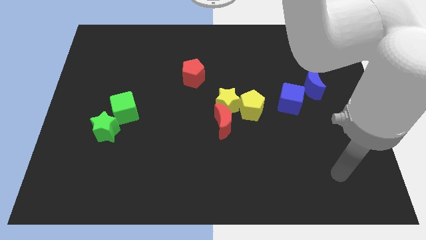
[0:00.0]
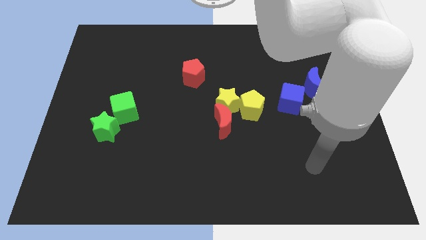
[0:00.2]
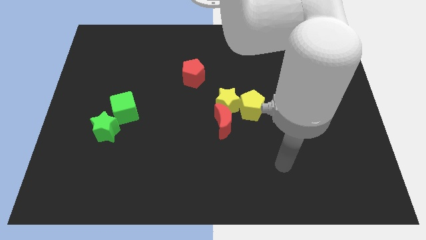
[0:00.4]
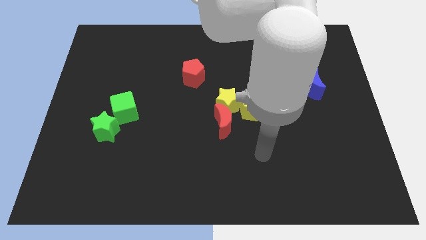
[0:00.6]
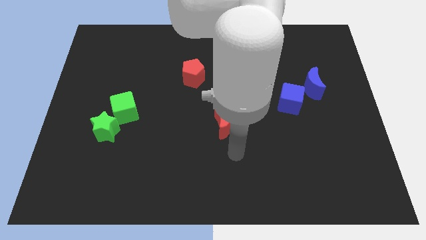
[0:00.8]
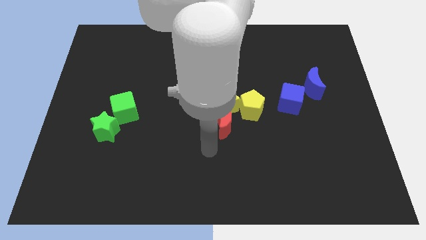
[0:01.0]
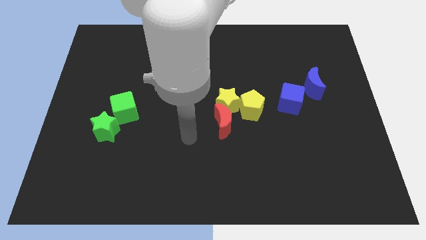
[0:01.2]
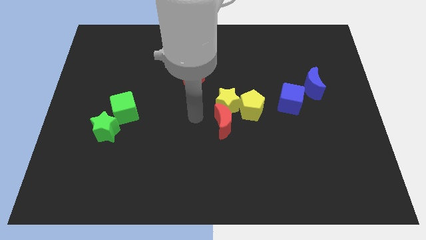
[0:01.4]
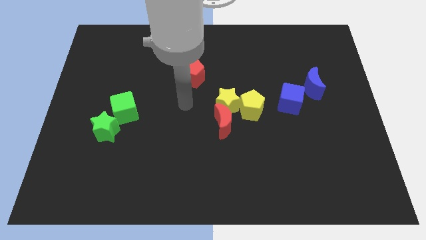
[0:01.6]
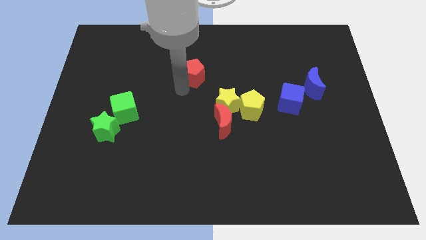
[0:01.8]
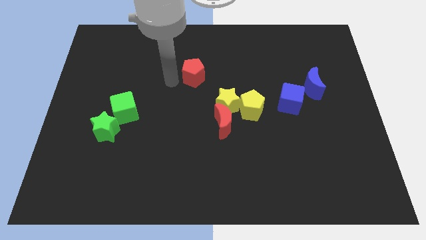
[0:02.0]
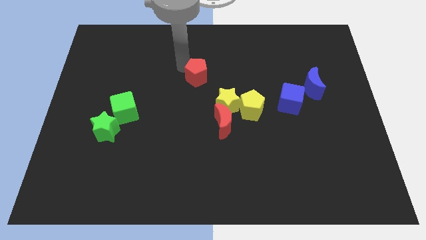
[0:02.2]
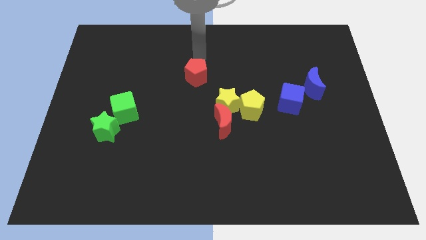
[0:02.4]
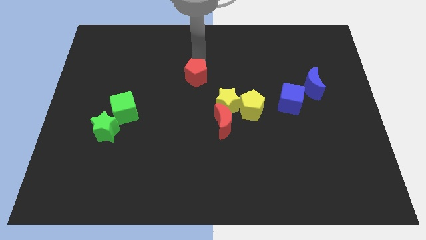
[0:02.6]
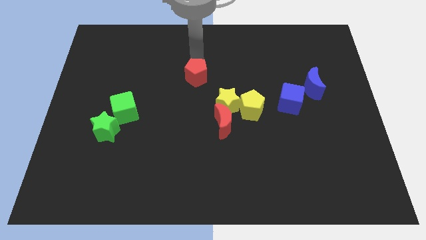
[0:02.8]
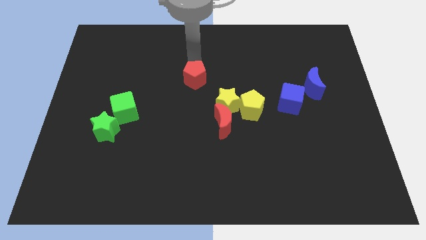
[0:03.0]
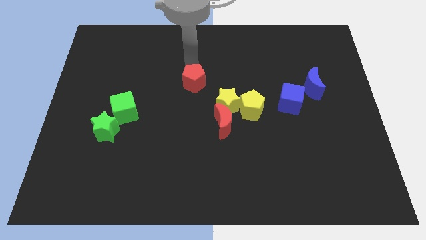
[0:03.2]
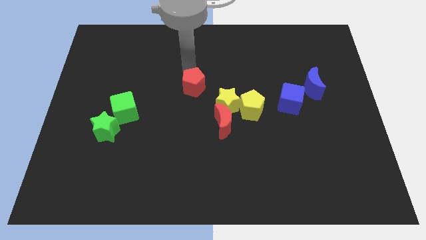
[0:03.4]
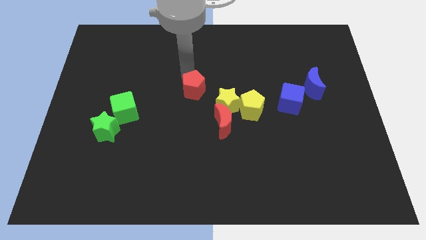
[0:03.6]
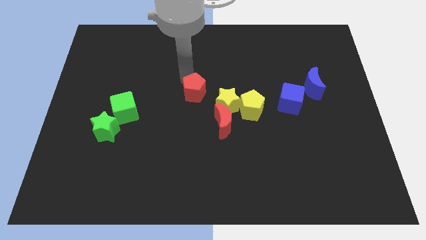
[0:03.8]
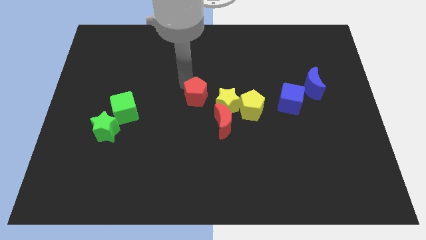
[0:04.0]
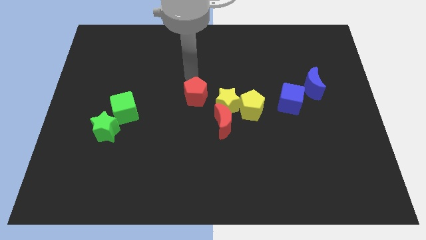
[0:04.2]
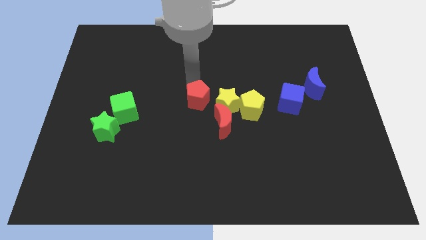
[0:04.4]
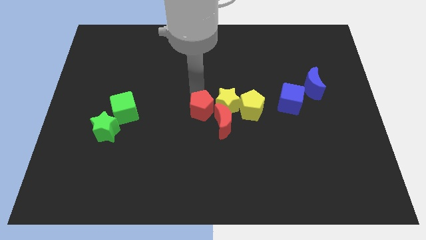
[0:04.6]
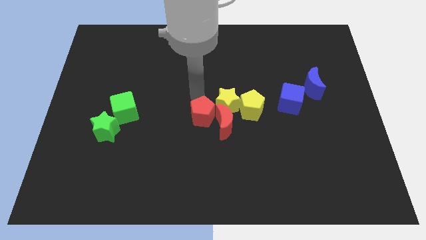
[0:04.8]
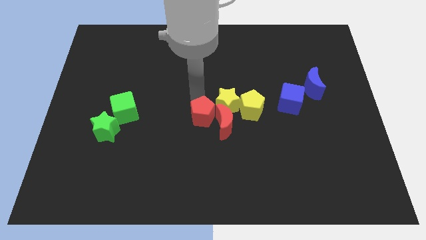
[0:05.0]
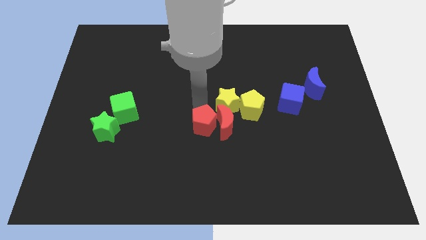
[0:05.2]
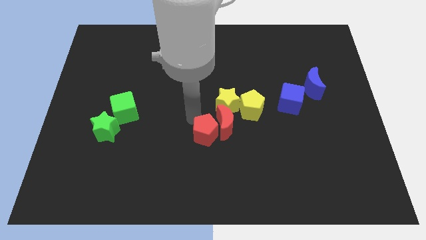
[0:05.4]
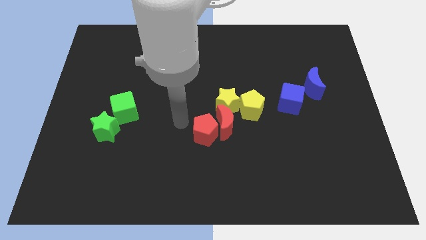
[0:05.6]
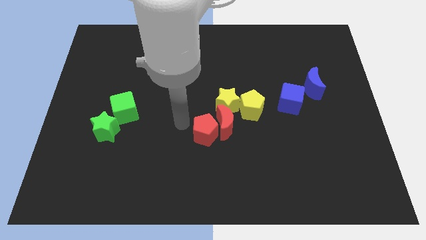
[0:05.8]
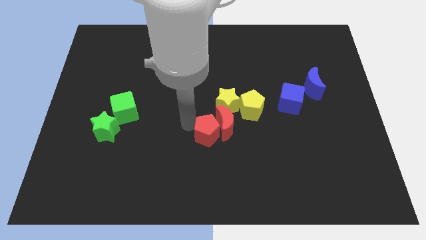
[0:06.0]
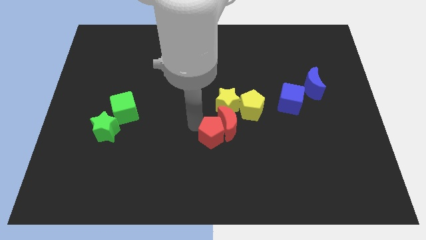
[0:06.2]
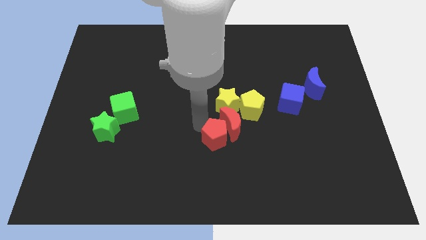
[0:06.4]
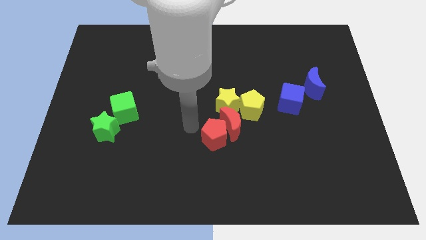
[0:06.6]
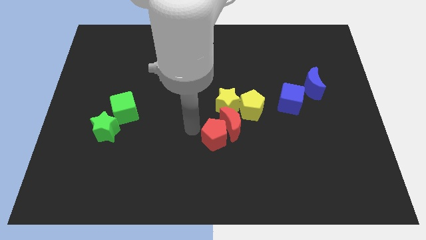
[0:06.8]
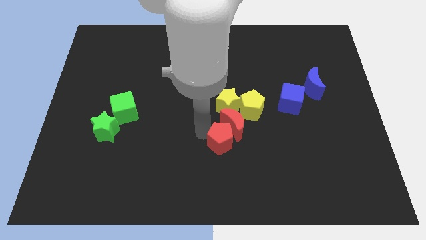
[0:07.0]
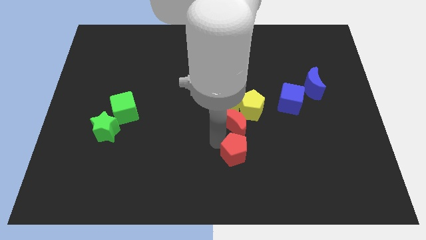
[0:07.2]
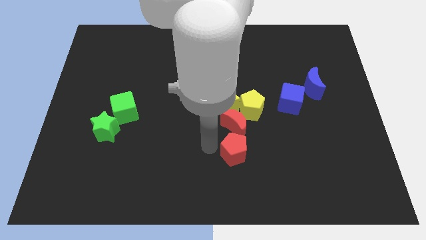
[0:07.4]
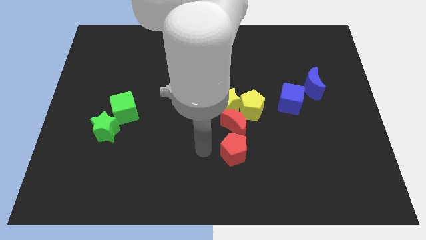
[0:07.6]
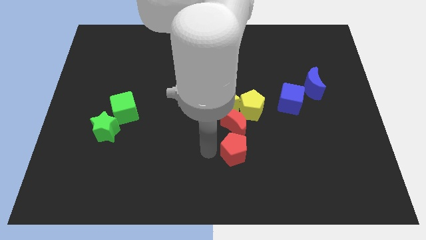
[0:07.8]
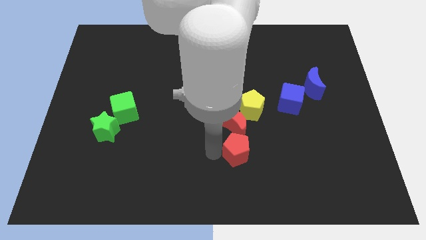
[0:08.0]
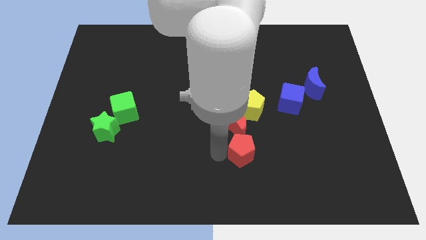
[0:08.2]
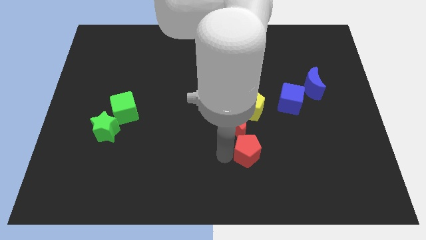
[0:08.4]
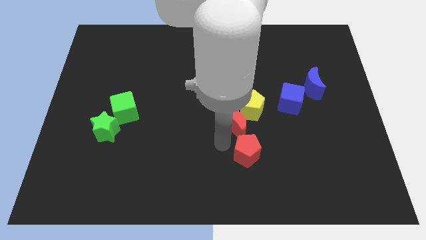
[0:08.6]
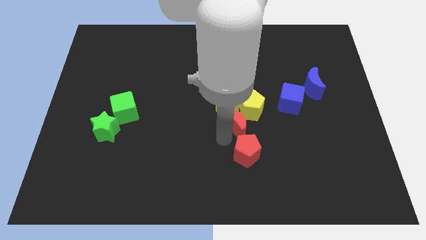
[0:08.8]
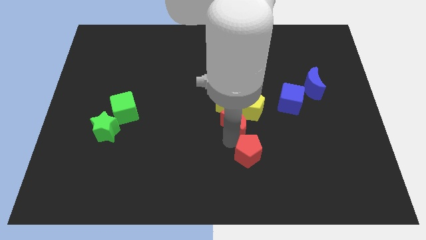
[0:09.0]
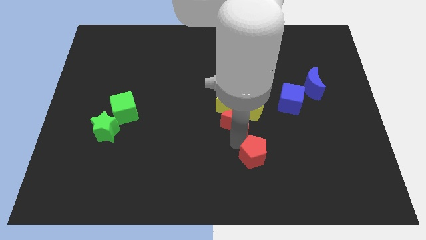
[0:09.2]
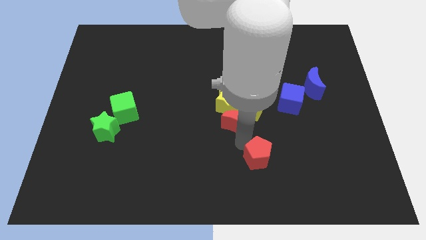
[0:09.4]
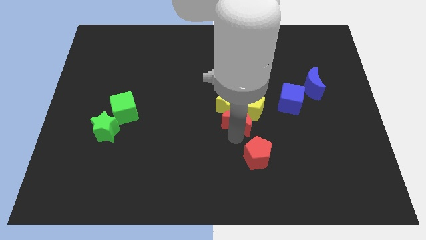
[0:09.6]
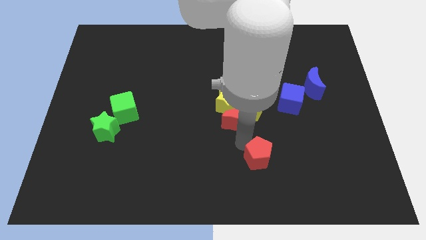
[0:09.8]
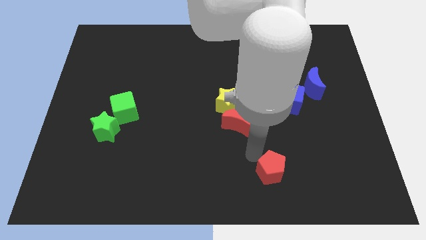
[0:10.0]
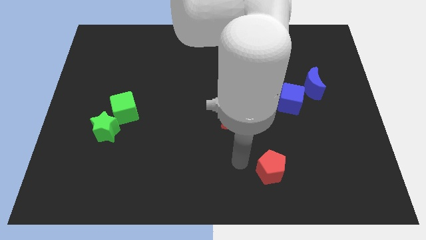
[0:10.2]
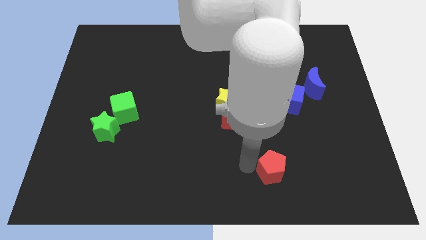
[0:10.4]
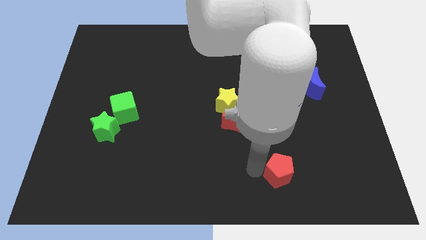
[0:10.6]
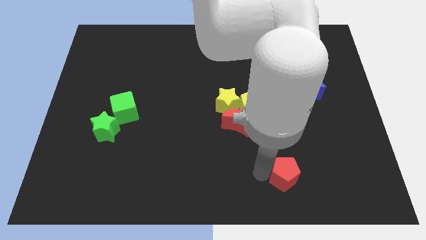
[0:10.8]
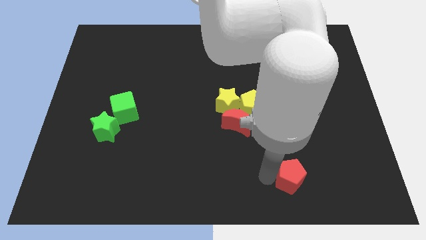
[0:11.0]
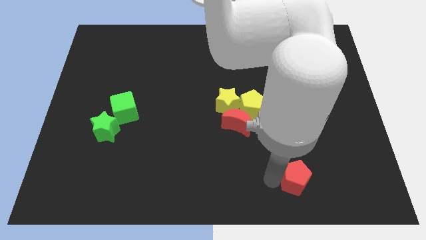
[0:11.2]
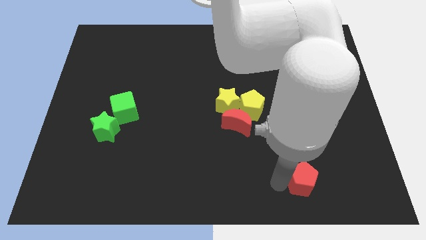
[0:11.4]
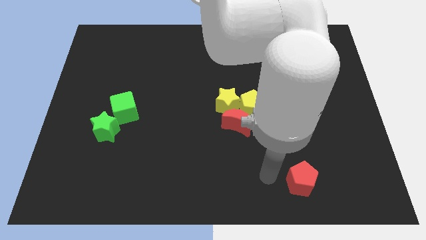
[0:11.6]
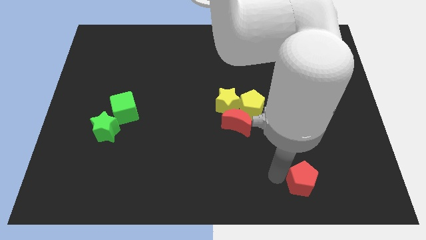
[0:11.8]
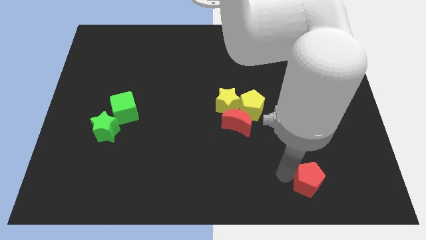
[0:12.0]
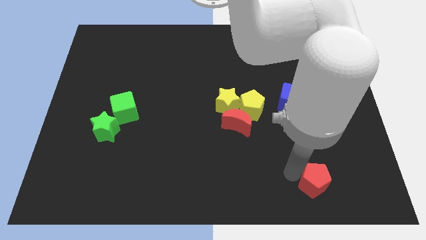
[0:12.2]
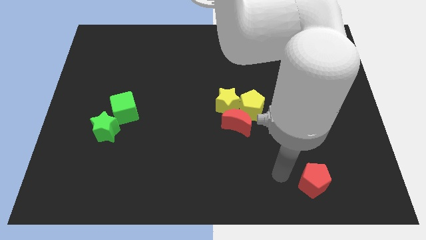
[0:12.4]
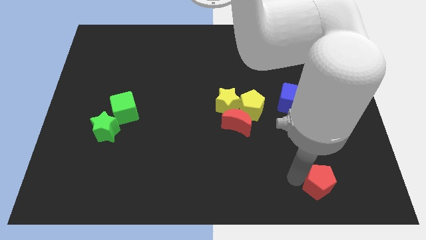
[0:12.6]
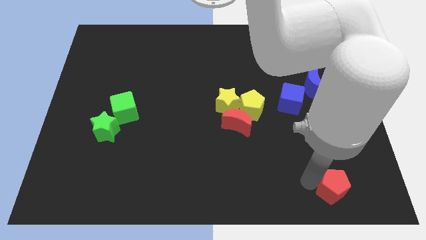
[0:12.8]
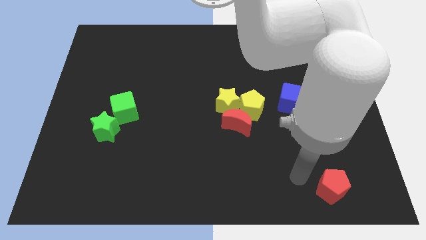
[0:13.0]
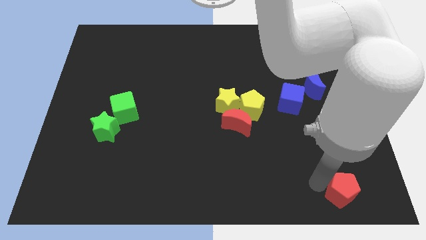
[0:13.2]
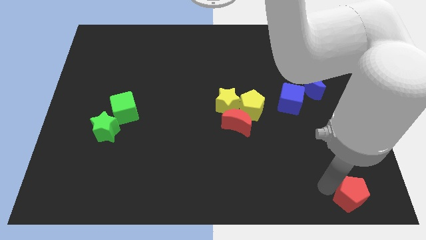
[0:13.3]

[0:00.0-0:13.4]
move the red pentagon to the bottom right corner
